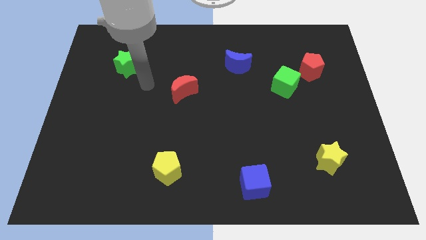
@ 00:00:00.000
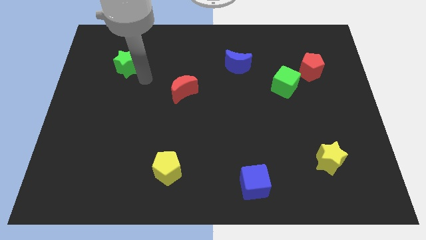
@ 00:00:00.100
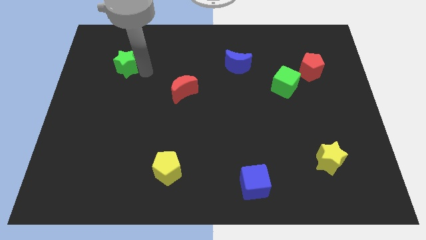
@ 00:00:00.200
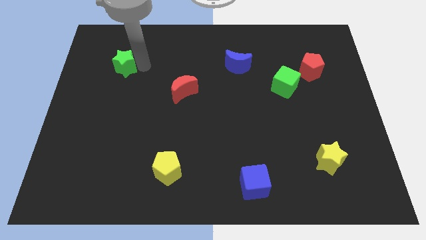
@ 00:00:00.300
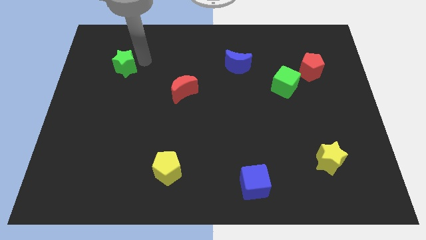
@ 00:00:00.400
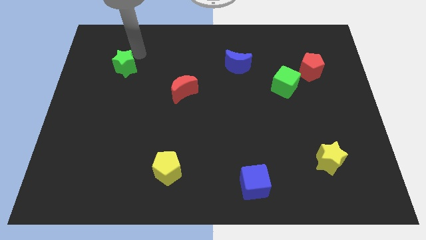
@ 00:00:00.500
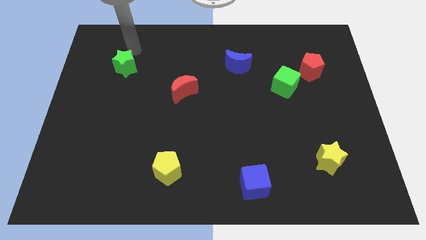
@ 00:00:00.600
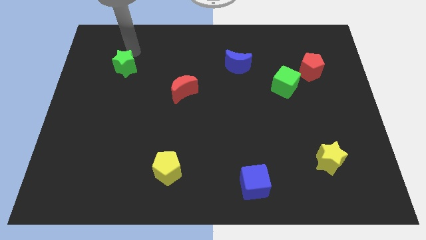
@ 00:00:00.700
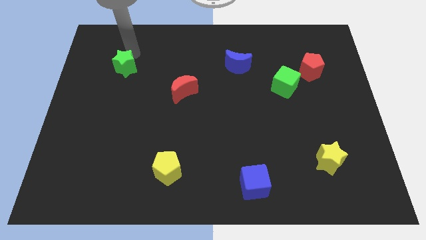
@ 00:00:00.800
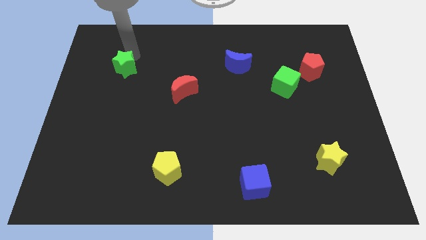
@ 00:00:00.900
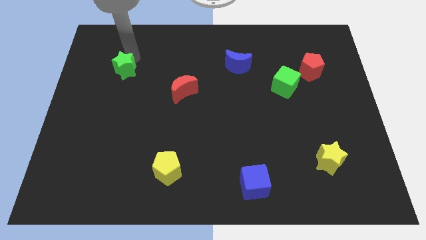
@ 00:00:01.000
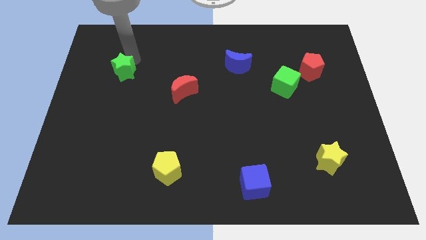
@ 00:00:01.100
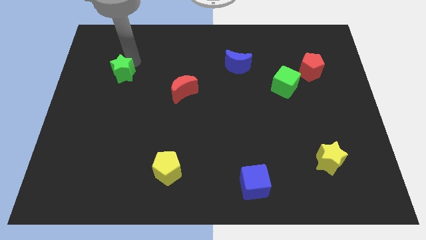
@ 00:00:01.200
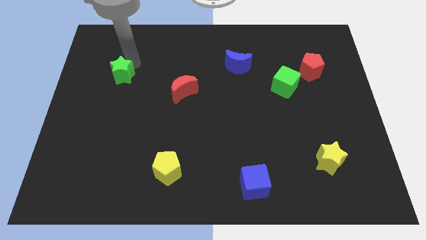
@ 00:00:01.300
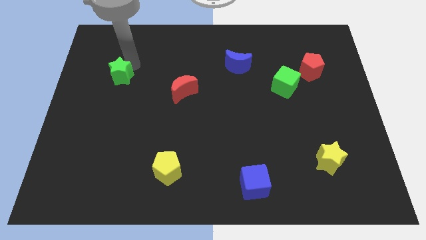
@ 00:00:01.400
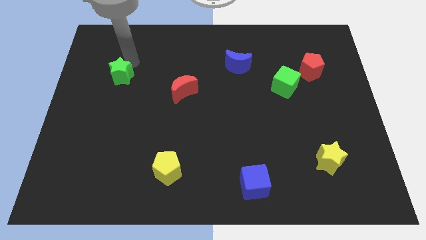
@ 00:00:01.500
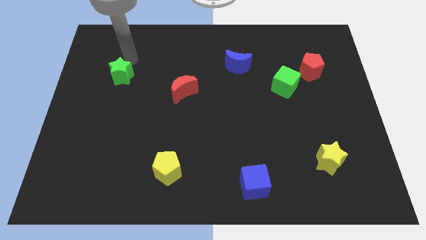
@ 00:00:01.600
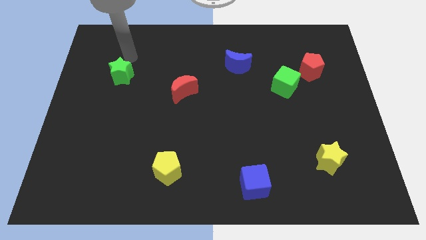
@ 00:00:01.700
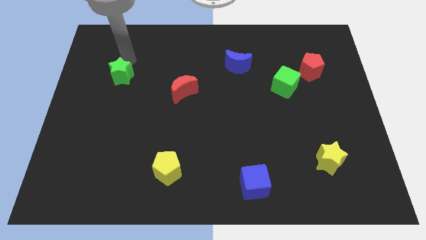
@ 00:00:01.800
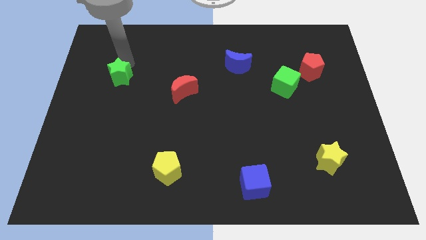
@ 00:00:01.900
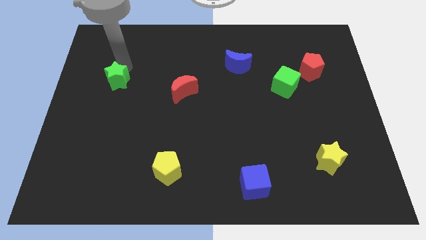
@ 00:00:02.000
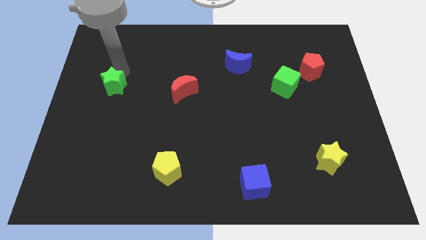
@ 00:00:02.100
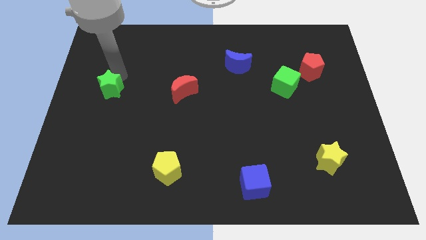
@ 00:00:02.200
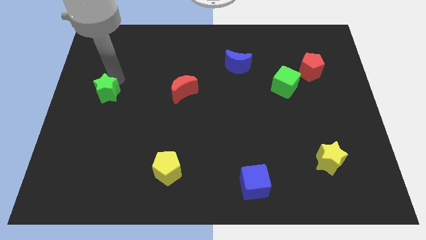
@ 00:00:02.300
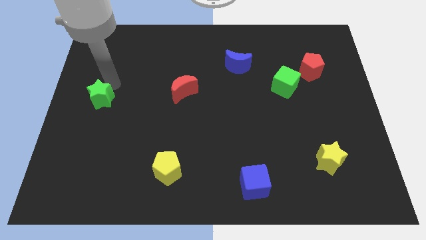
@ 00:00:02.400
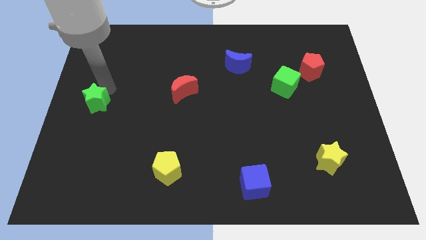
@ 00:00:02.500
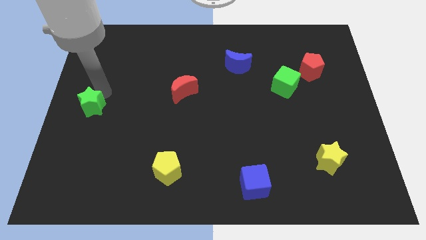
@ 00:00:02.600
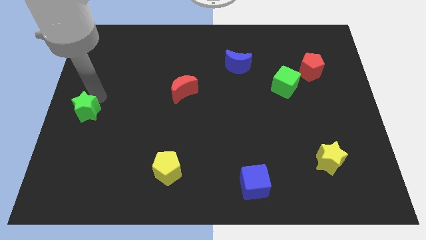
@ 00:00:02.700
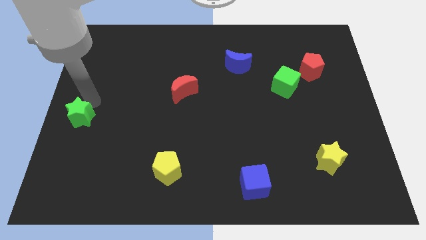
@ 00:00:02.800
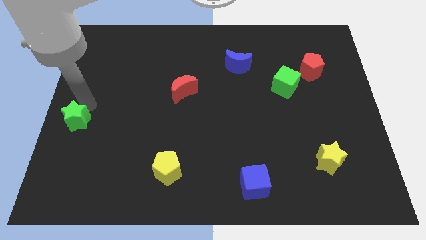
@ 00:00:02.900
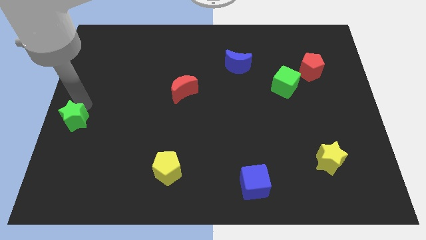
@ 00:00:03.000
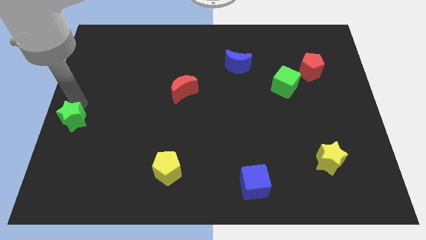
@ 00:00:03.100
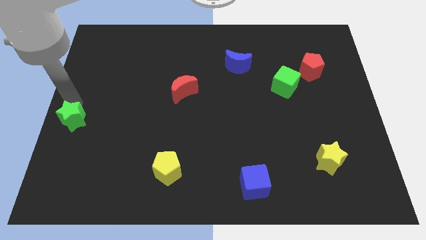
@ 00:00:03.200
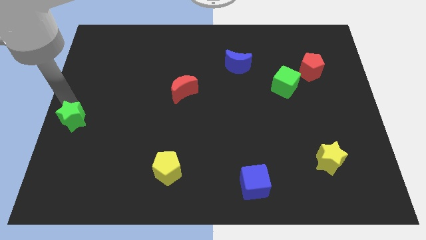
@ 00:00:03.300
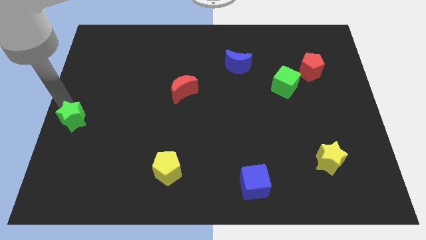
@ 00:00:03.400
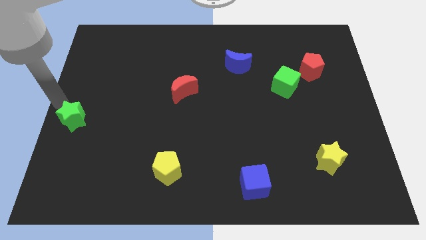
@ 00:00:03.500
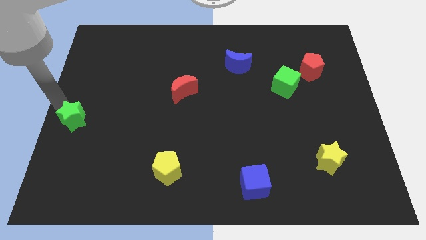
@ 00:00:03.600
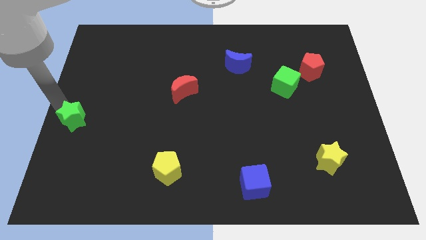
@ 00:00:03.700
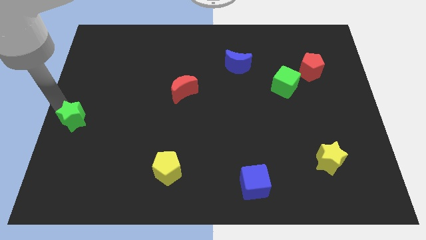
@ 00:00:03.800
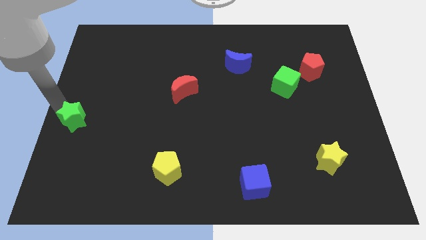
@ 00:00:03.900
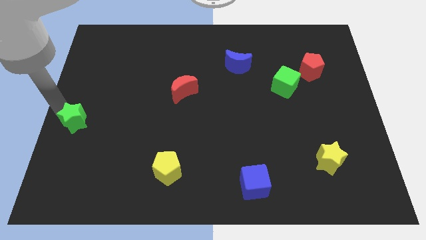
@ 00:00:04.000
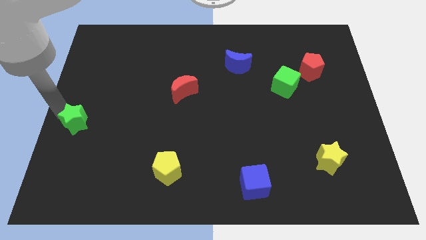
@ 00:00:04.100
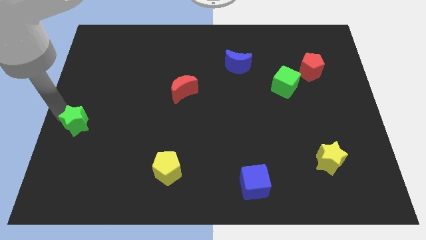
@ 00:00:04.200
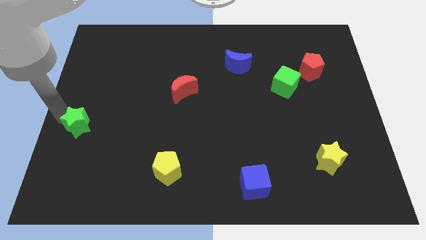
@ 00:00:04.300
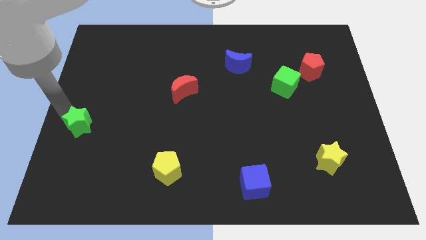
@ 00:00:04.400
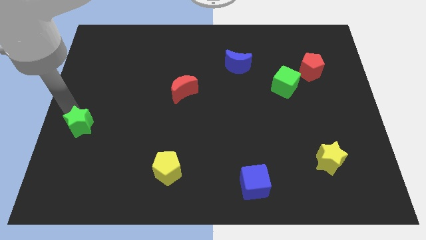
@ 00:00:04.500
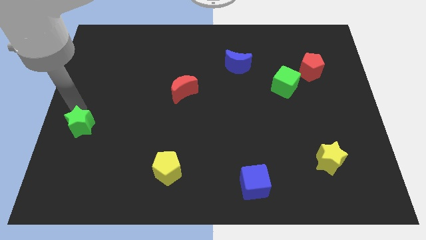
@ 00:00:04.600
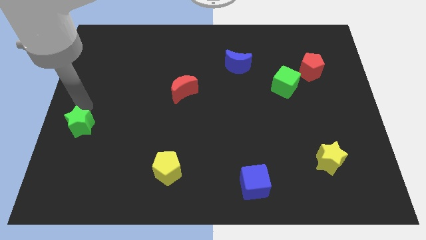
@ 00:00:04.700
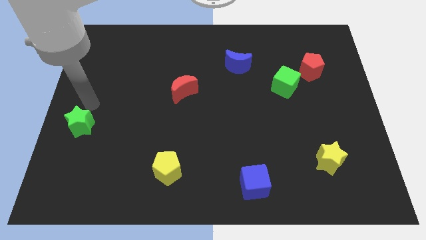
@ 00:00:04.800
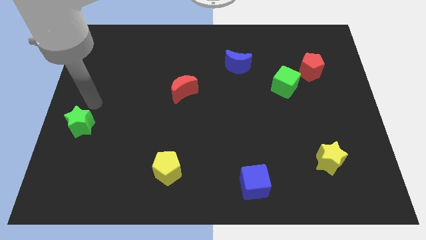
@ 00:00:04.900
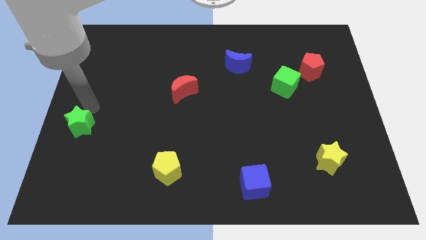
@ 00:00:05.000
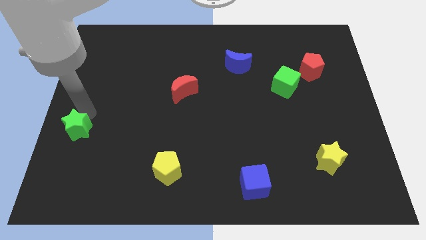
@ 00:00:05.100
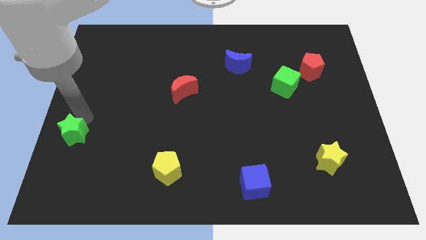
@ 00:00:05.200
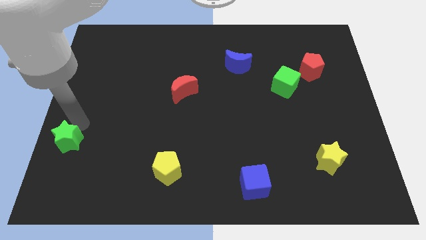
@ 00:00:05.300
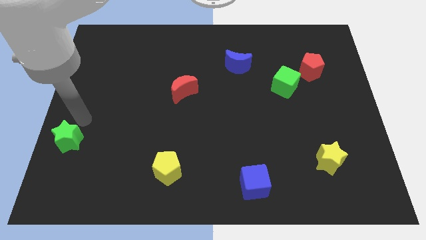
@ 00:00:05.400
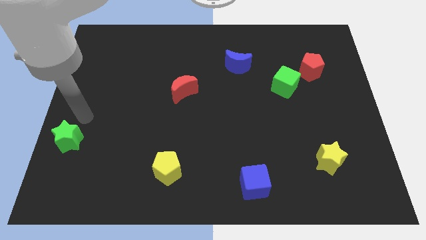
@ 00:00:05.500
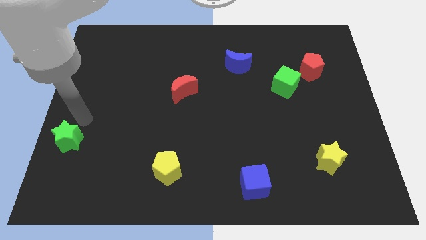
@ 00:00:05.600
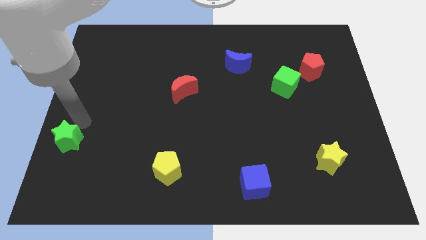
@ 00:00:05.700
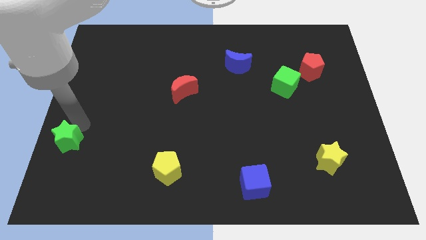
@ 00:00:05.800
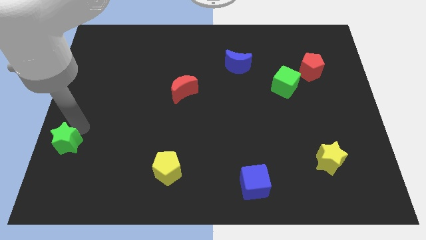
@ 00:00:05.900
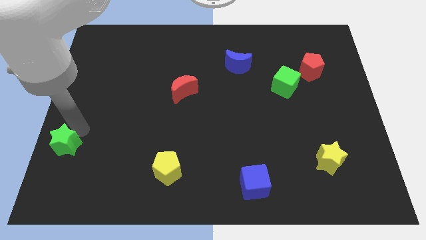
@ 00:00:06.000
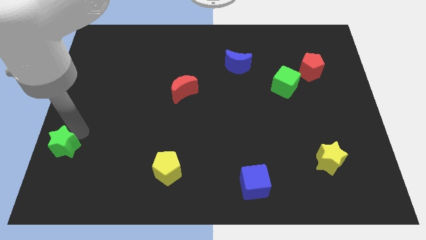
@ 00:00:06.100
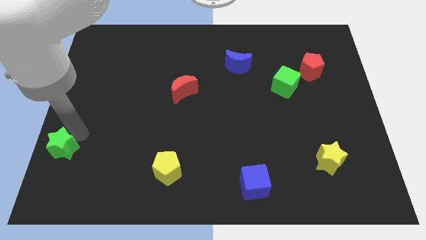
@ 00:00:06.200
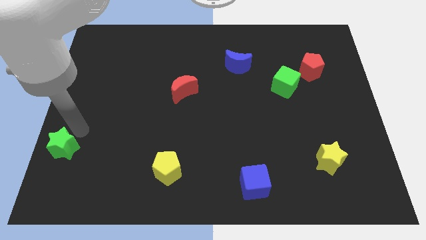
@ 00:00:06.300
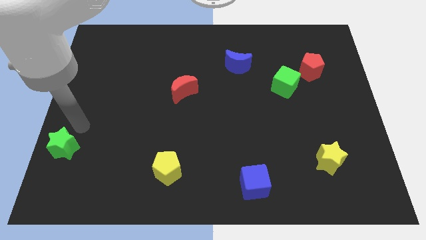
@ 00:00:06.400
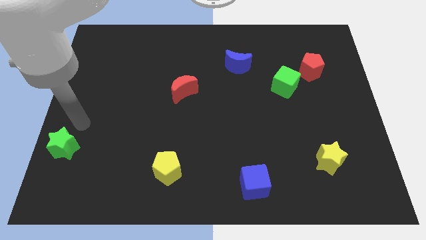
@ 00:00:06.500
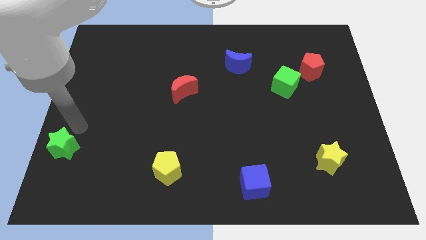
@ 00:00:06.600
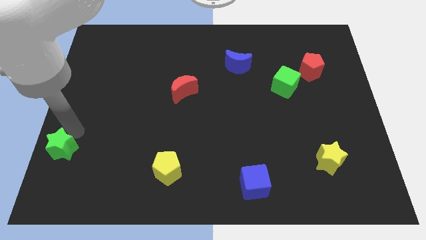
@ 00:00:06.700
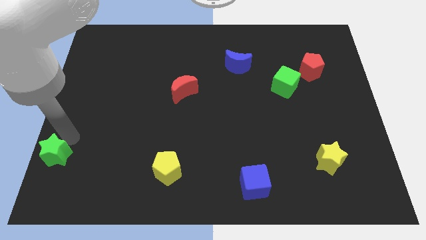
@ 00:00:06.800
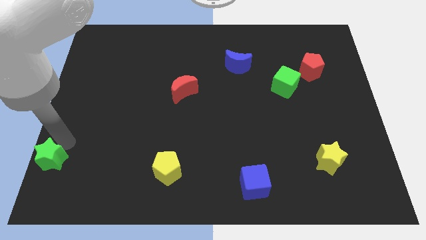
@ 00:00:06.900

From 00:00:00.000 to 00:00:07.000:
push the green star to the bottom left corner
